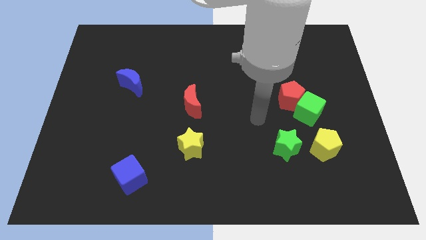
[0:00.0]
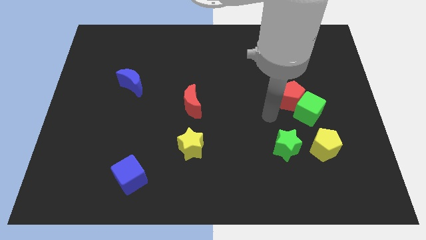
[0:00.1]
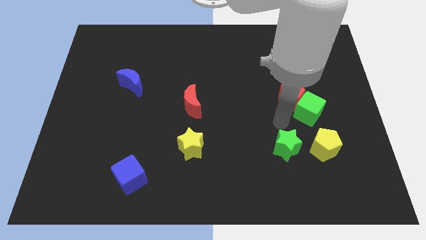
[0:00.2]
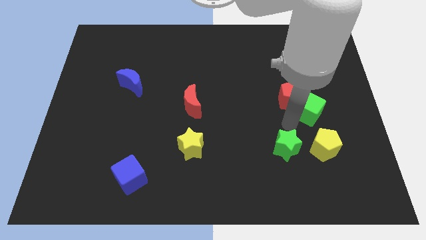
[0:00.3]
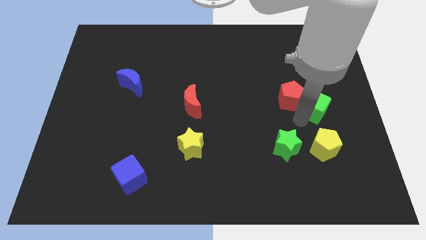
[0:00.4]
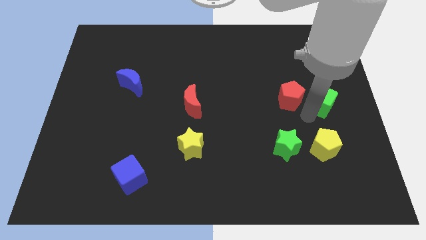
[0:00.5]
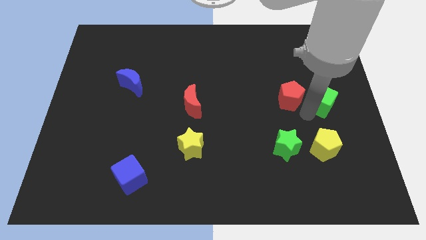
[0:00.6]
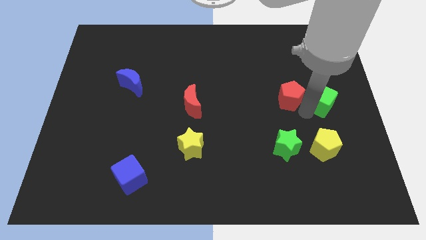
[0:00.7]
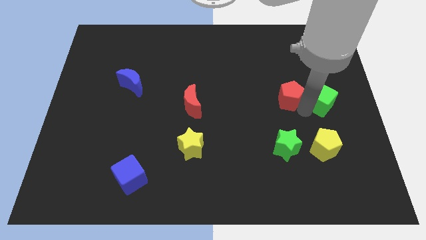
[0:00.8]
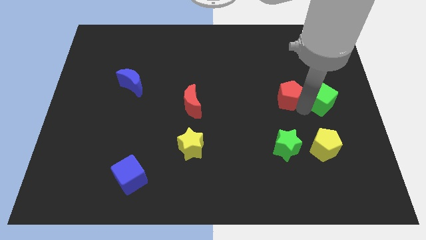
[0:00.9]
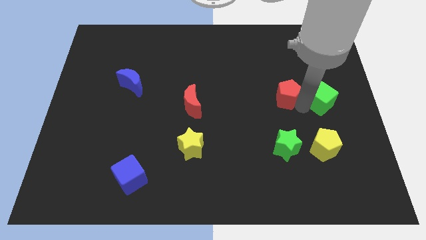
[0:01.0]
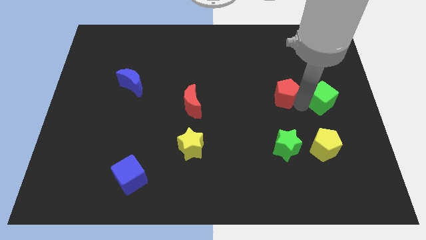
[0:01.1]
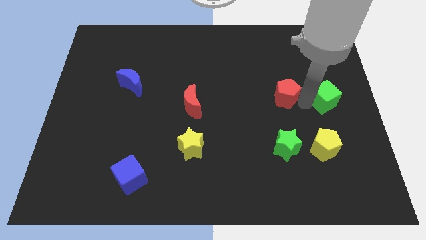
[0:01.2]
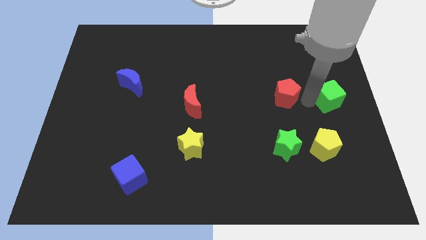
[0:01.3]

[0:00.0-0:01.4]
separate the red pentagon from the green cube

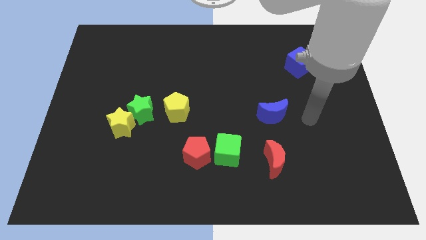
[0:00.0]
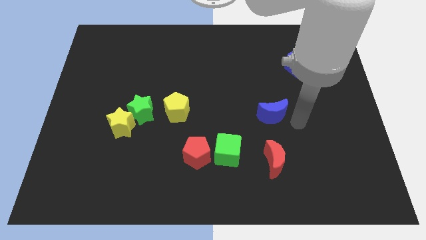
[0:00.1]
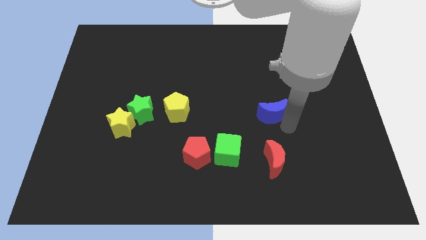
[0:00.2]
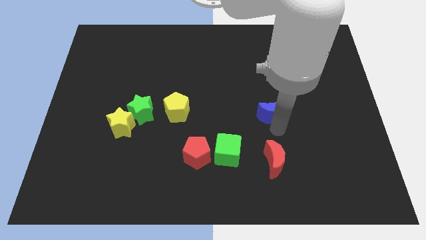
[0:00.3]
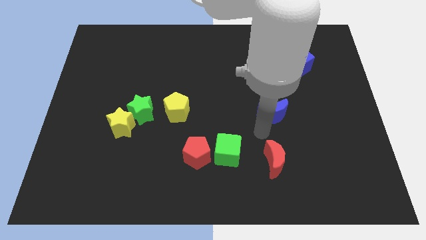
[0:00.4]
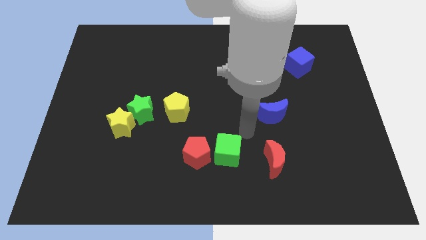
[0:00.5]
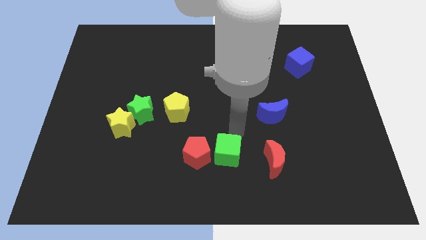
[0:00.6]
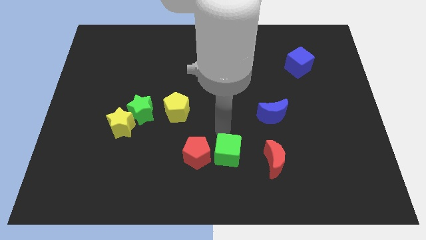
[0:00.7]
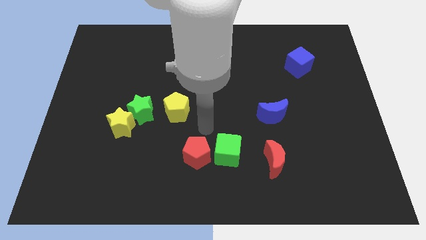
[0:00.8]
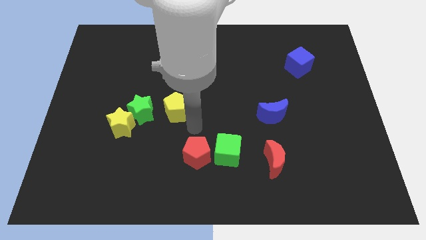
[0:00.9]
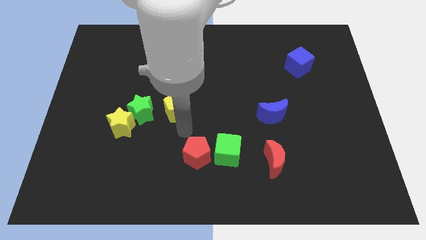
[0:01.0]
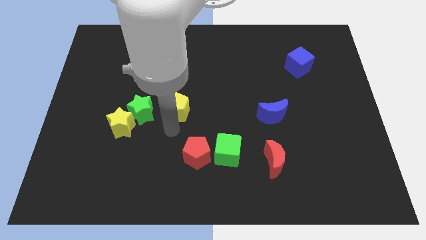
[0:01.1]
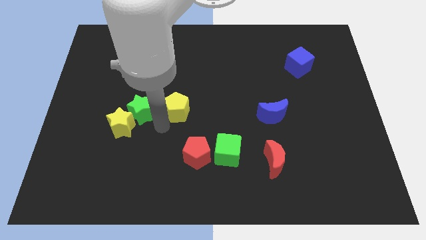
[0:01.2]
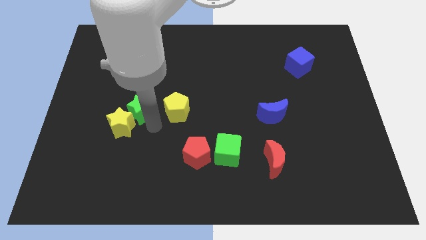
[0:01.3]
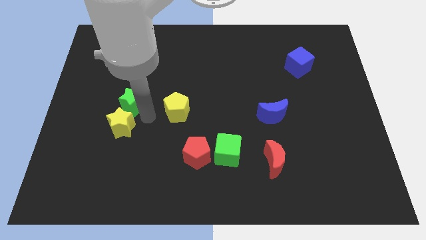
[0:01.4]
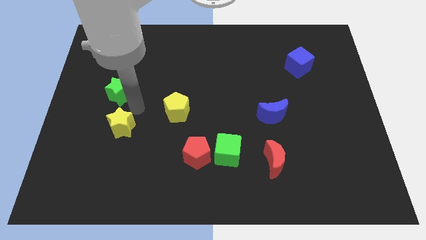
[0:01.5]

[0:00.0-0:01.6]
separate the yellow star from the green star

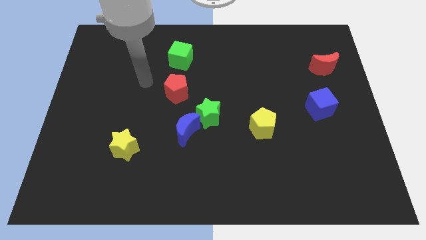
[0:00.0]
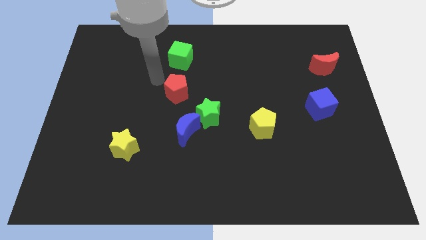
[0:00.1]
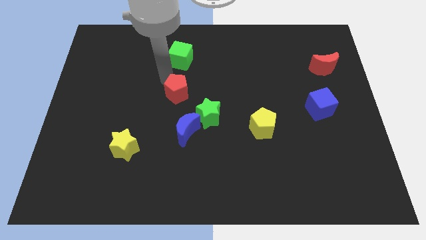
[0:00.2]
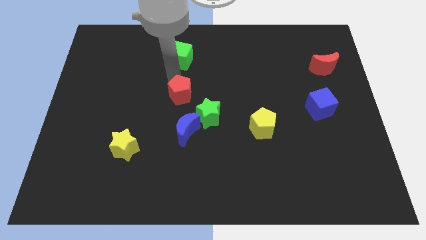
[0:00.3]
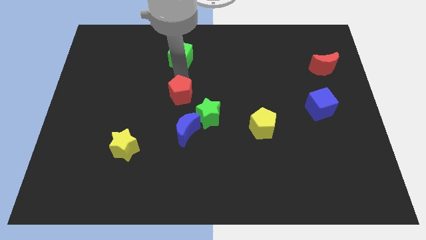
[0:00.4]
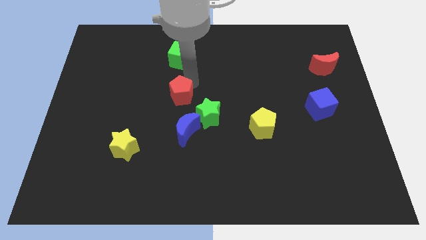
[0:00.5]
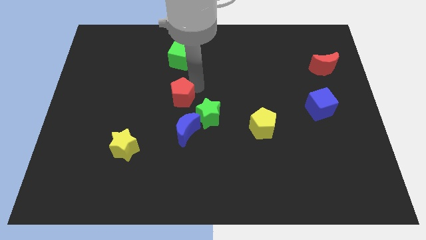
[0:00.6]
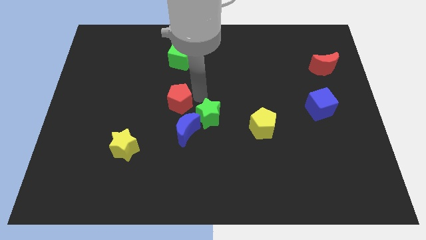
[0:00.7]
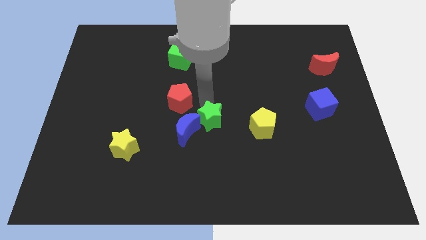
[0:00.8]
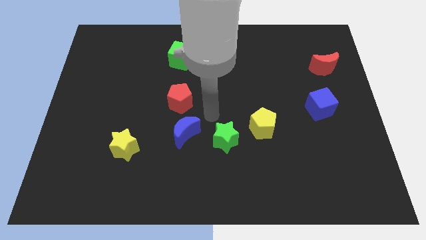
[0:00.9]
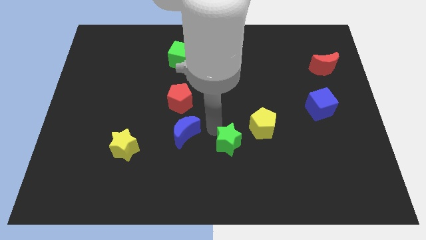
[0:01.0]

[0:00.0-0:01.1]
move the blue moon away from the green star

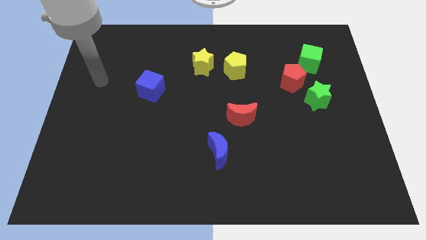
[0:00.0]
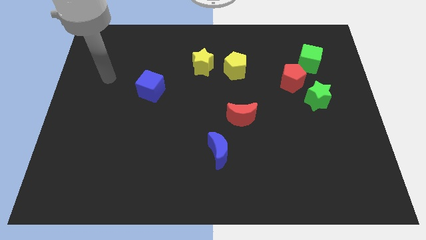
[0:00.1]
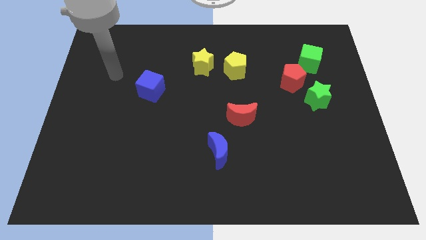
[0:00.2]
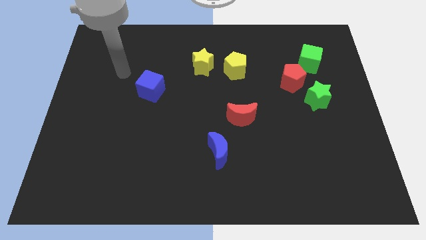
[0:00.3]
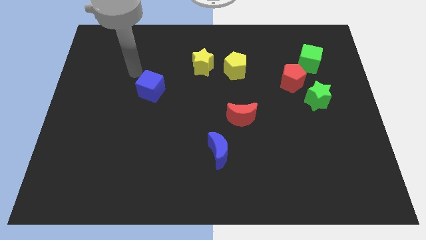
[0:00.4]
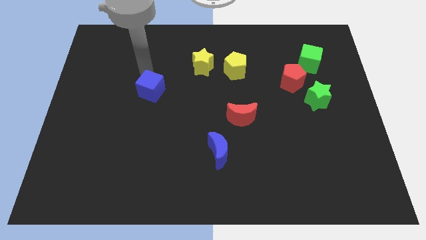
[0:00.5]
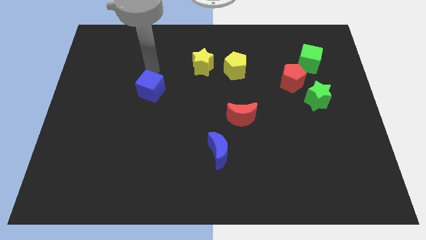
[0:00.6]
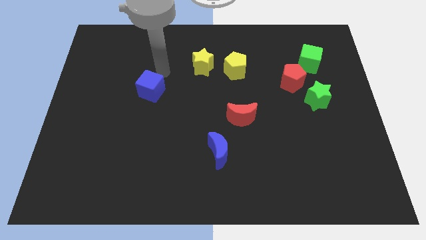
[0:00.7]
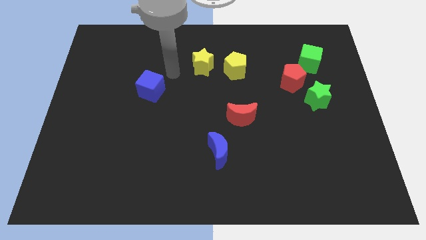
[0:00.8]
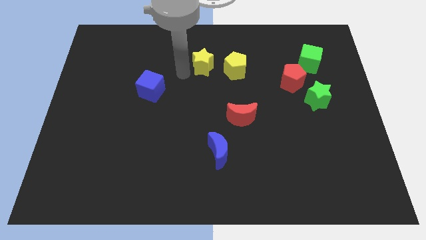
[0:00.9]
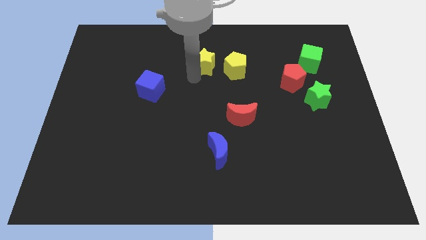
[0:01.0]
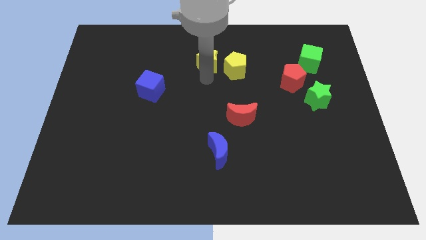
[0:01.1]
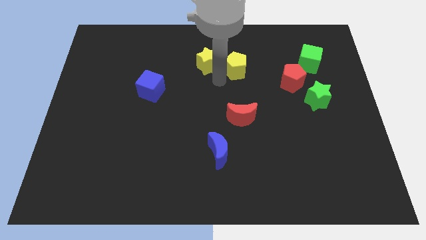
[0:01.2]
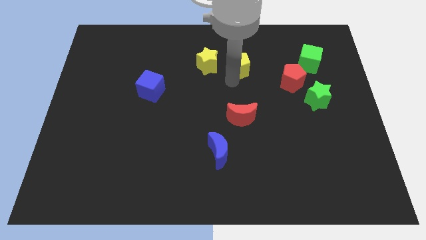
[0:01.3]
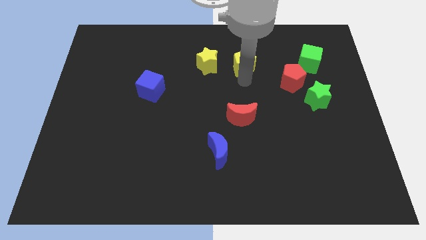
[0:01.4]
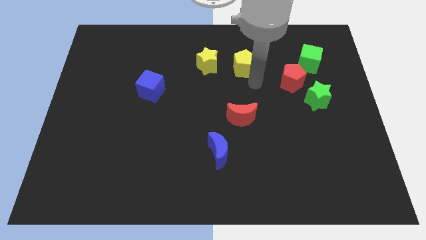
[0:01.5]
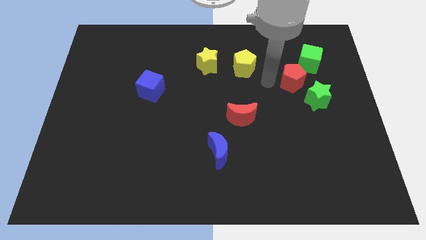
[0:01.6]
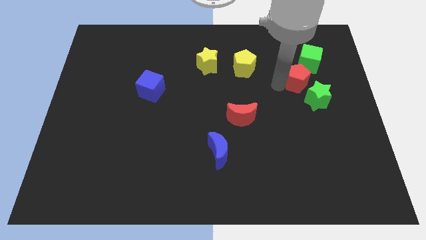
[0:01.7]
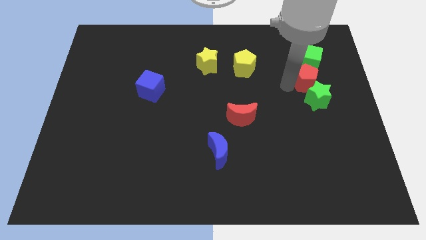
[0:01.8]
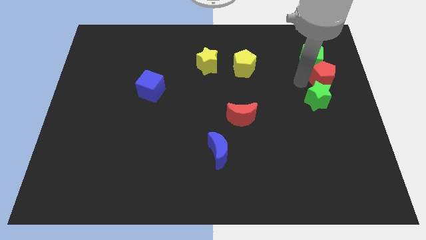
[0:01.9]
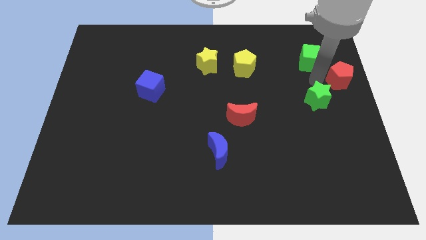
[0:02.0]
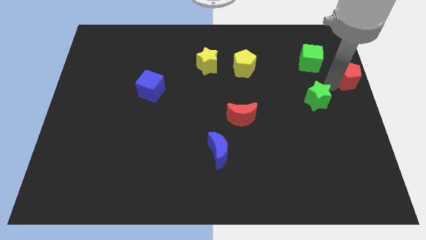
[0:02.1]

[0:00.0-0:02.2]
pull the green star apart from the red pentagon

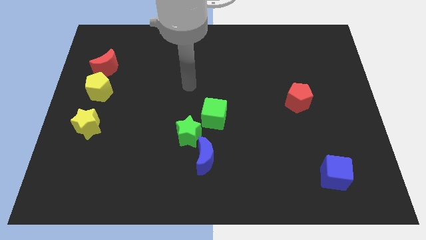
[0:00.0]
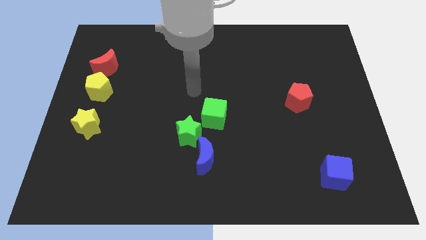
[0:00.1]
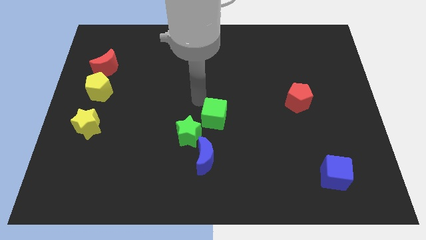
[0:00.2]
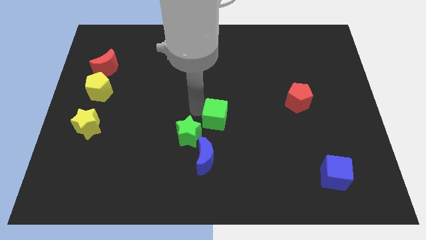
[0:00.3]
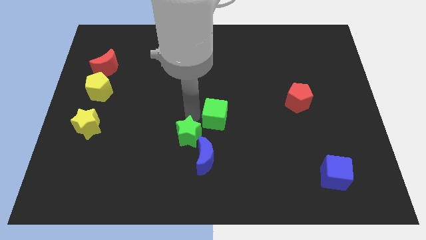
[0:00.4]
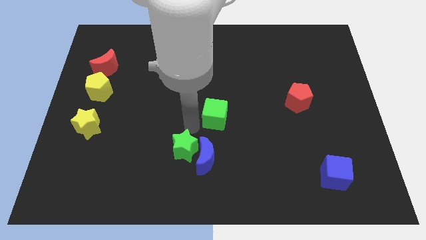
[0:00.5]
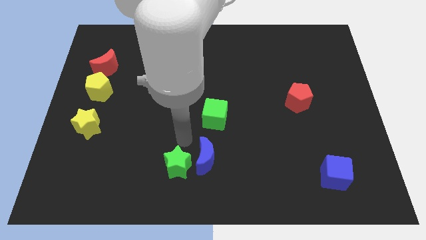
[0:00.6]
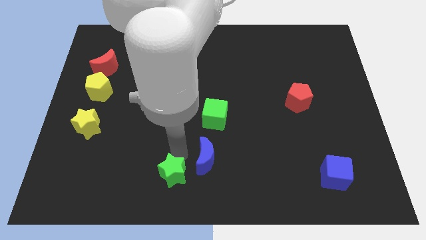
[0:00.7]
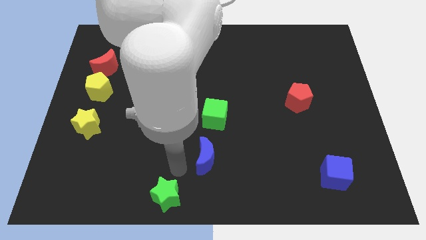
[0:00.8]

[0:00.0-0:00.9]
pull the blue moon apart from the green star

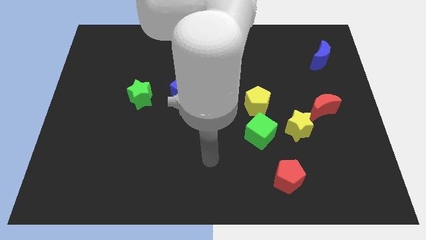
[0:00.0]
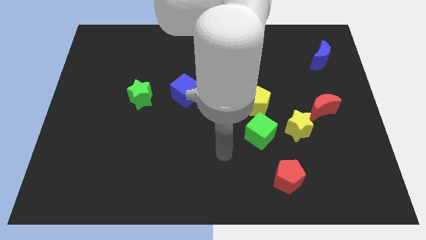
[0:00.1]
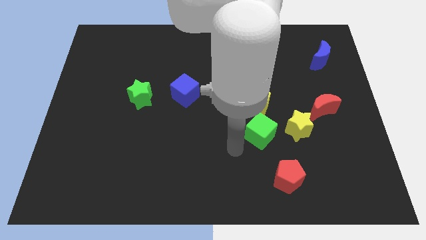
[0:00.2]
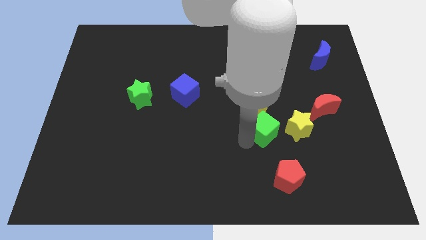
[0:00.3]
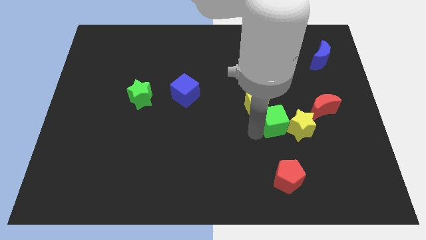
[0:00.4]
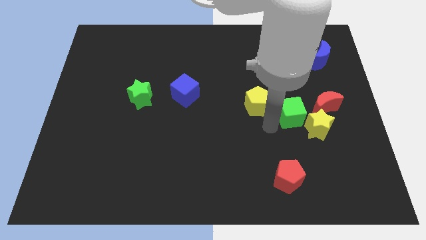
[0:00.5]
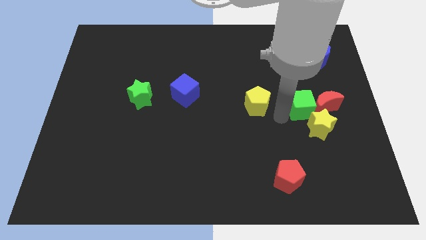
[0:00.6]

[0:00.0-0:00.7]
move the yellow pentagon away from the green cube

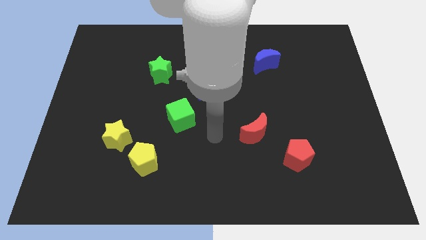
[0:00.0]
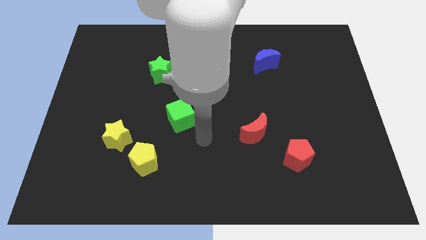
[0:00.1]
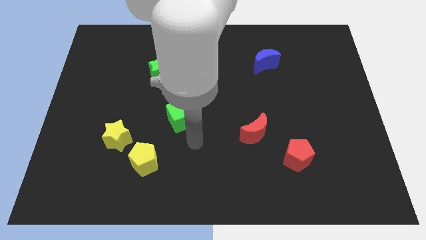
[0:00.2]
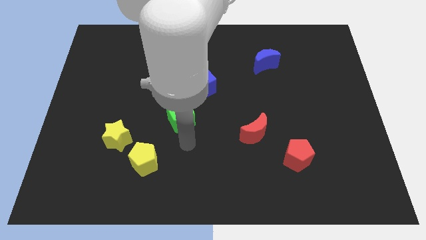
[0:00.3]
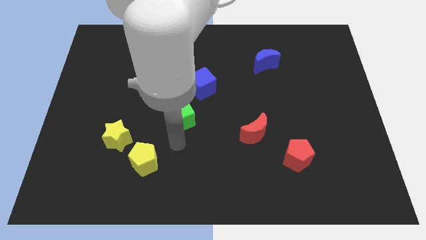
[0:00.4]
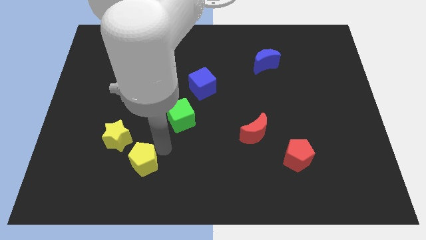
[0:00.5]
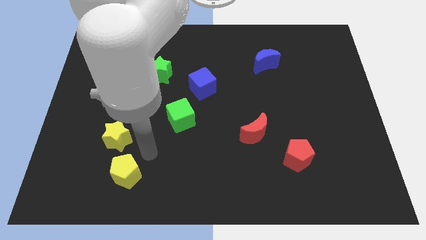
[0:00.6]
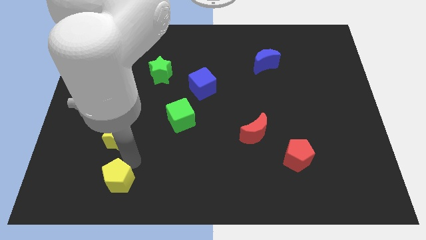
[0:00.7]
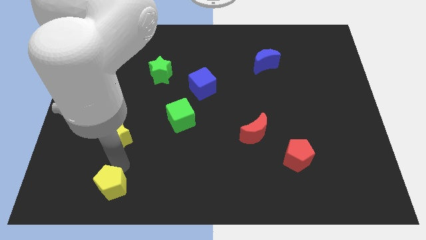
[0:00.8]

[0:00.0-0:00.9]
pull the yellow star apart from the yellow pentagon

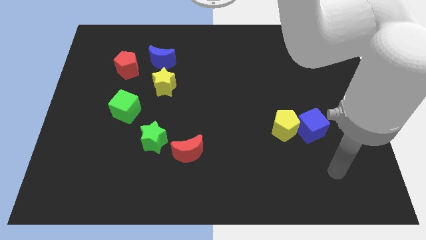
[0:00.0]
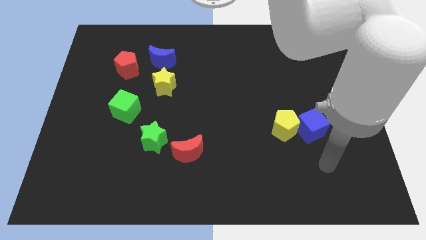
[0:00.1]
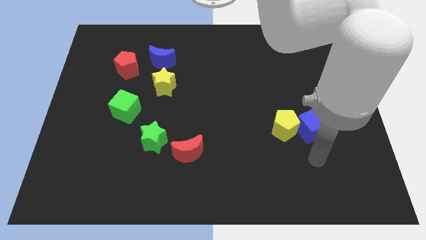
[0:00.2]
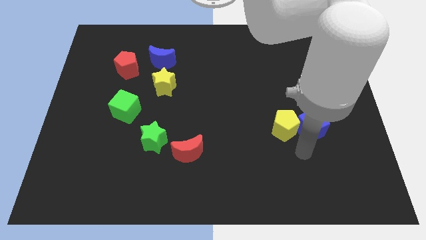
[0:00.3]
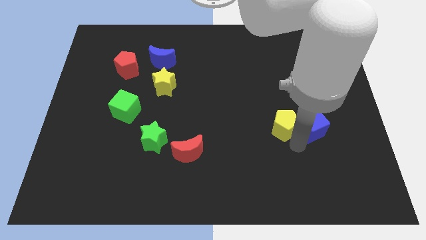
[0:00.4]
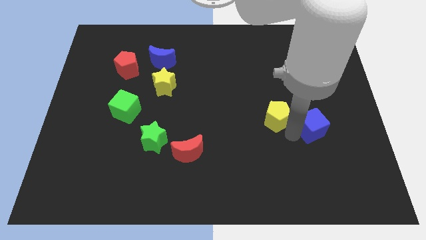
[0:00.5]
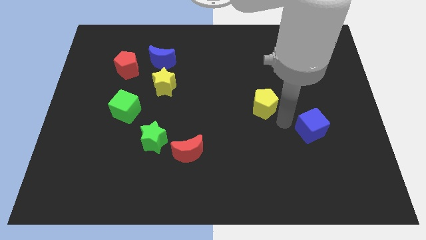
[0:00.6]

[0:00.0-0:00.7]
pull the blue cube apart from the yellow pentagon
